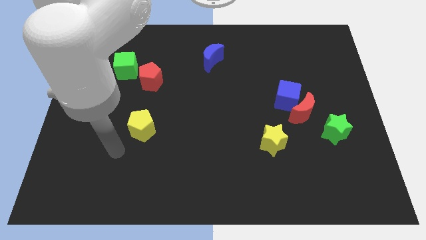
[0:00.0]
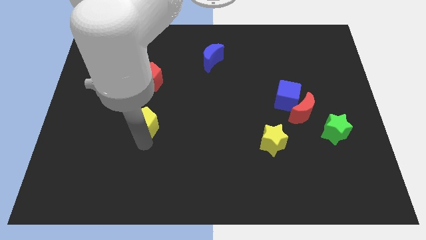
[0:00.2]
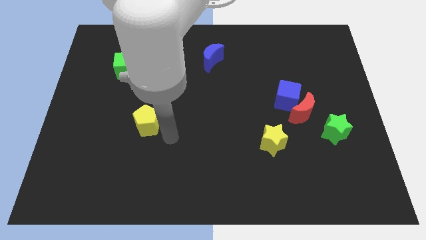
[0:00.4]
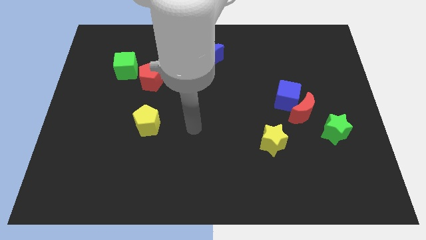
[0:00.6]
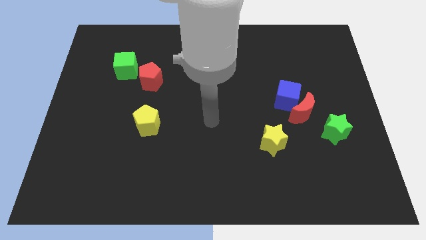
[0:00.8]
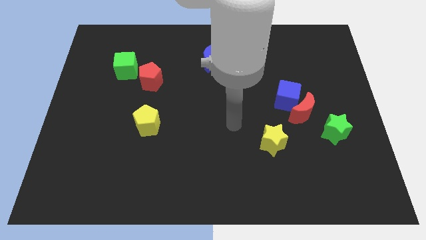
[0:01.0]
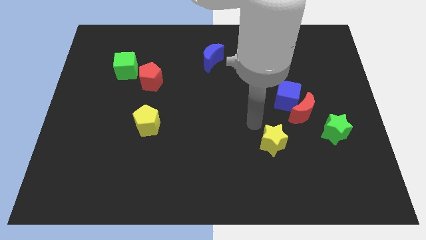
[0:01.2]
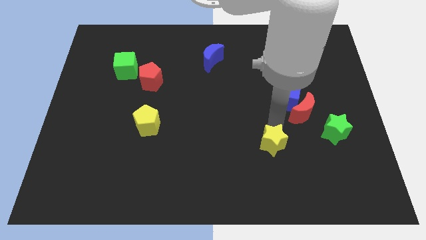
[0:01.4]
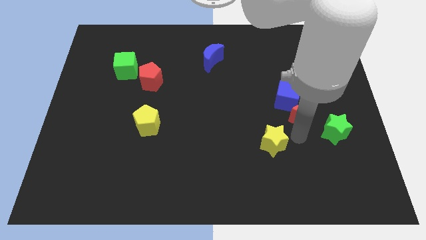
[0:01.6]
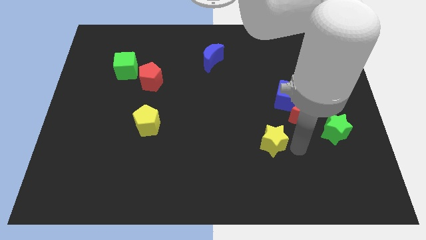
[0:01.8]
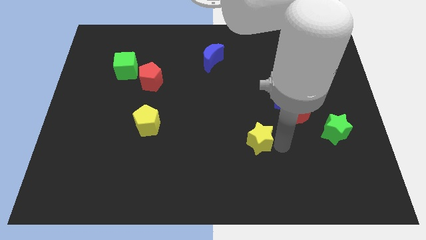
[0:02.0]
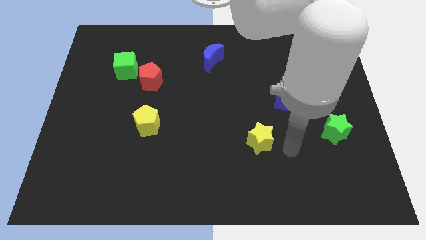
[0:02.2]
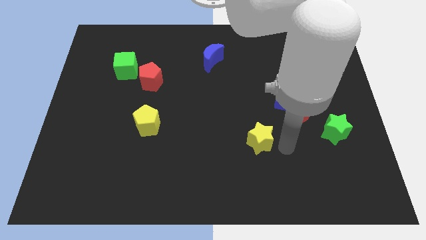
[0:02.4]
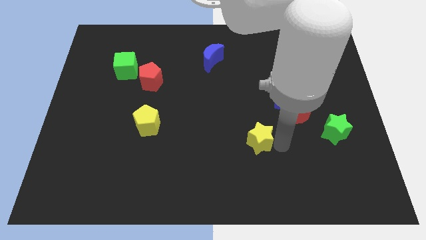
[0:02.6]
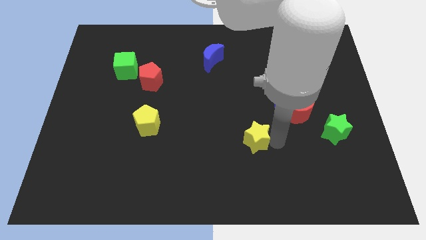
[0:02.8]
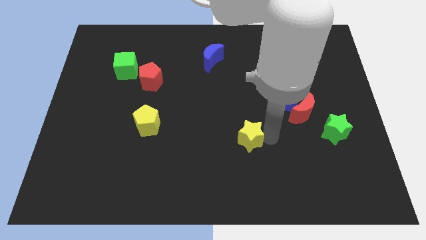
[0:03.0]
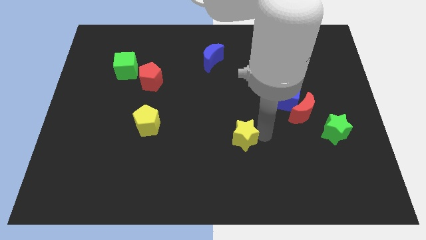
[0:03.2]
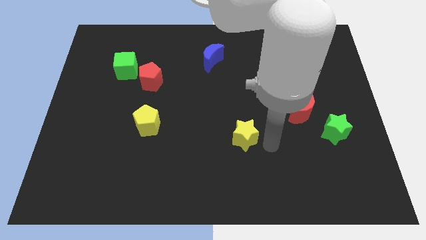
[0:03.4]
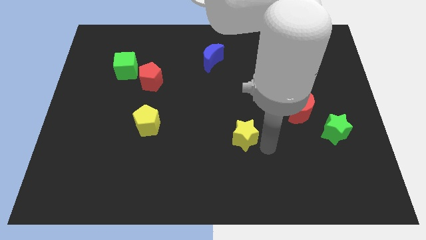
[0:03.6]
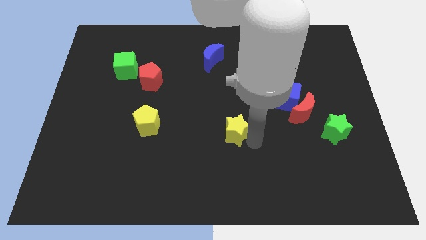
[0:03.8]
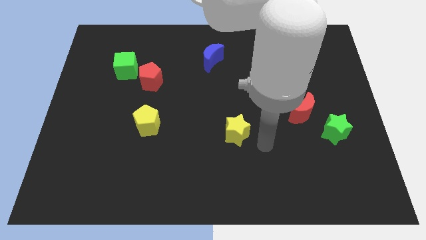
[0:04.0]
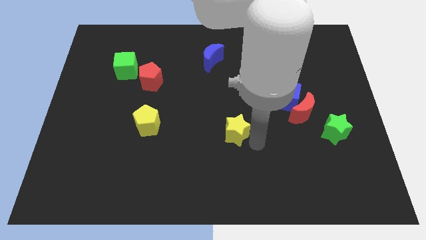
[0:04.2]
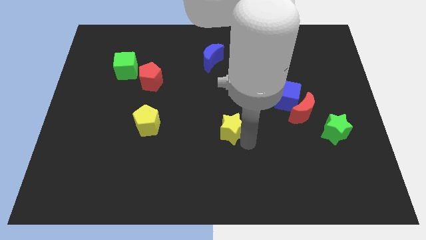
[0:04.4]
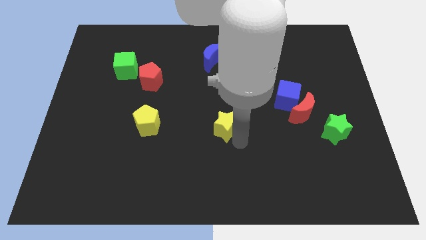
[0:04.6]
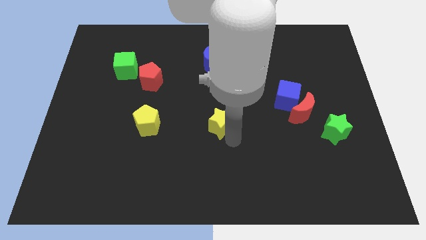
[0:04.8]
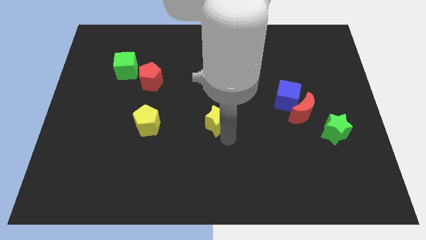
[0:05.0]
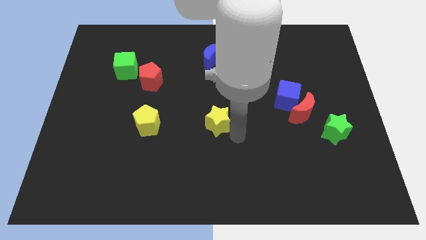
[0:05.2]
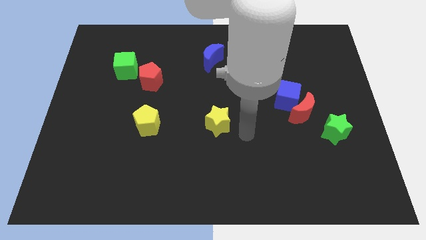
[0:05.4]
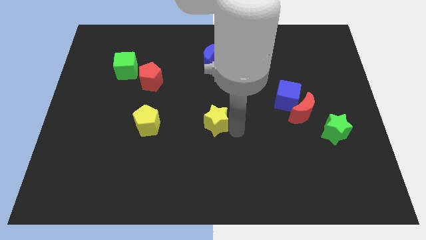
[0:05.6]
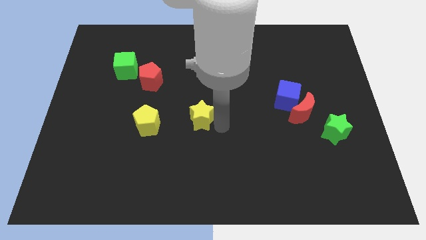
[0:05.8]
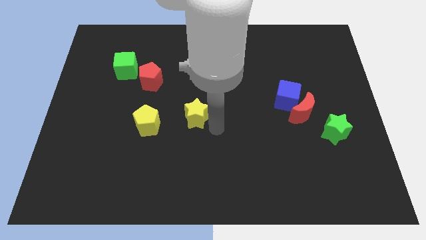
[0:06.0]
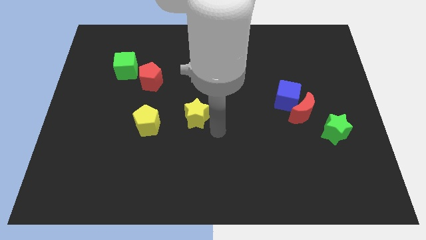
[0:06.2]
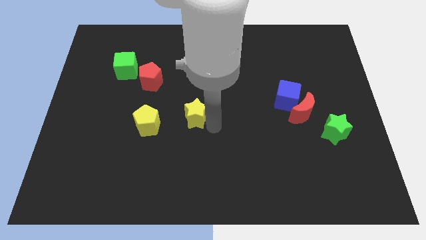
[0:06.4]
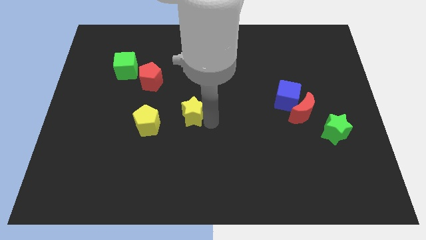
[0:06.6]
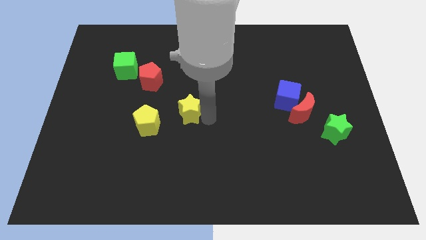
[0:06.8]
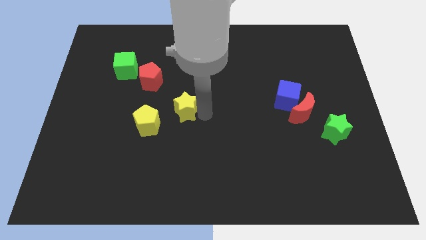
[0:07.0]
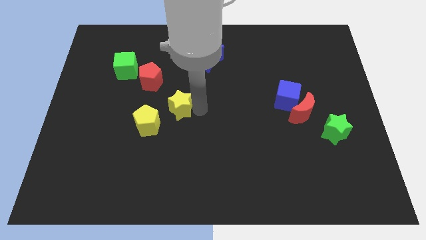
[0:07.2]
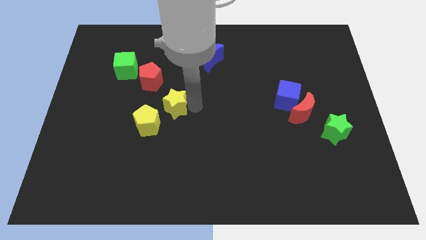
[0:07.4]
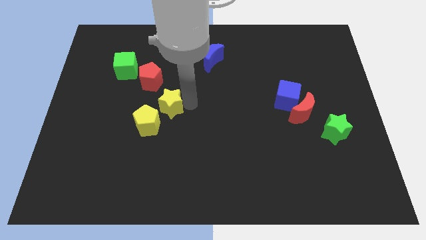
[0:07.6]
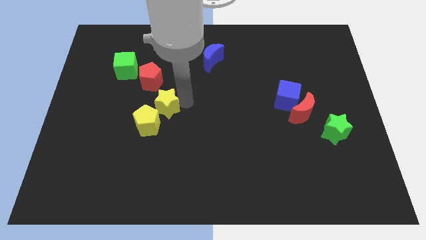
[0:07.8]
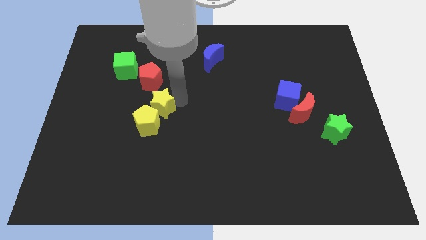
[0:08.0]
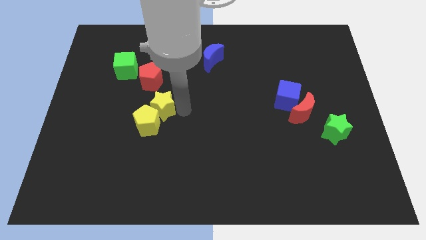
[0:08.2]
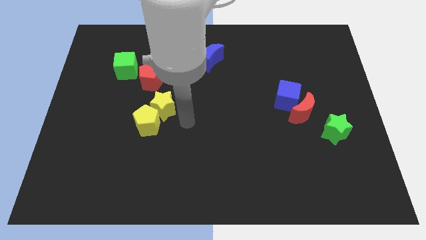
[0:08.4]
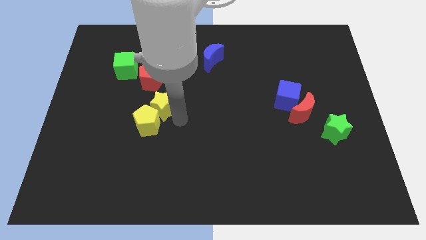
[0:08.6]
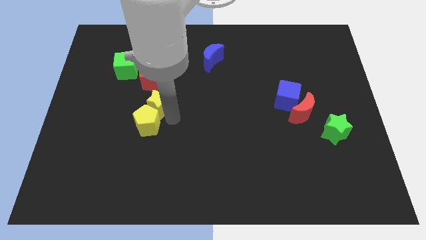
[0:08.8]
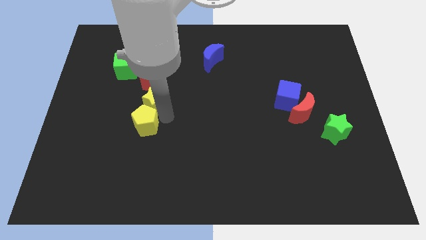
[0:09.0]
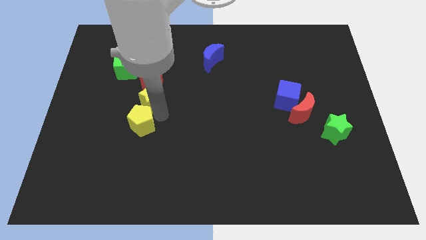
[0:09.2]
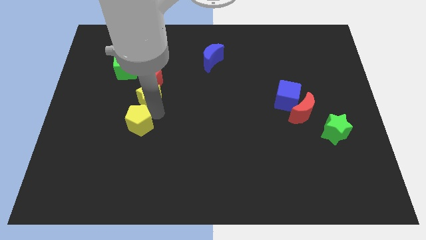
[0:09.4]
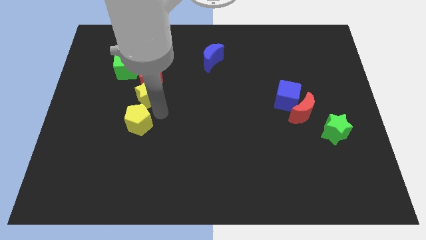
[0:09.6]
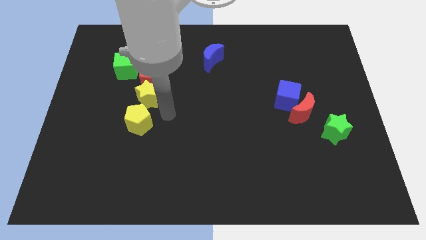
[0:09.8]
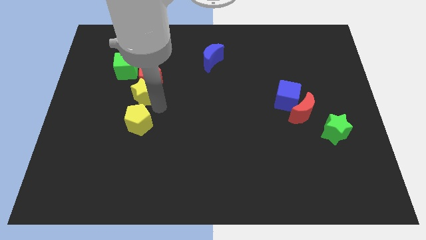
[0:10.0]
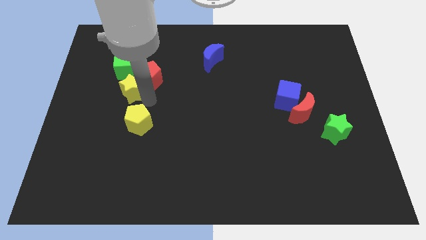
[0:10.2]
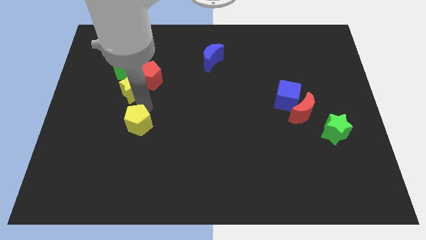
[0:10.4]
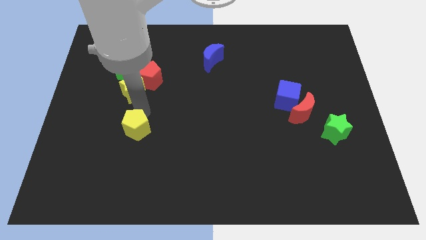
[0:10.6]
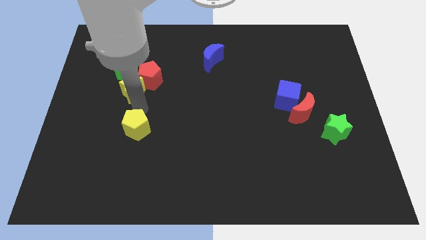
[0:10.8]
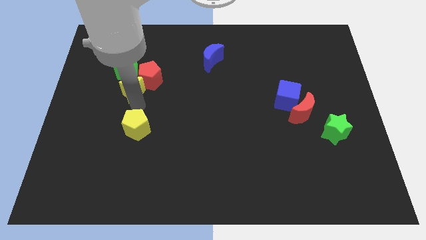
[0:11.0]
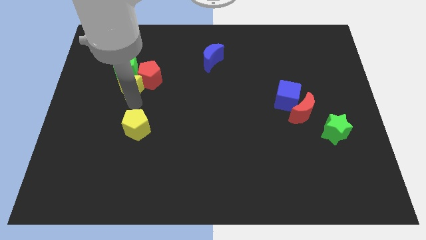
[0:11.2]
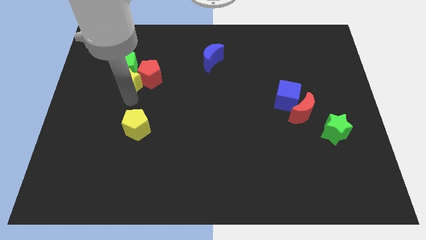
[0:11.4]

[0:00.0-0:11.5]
slide the yellow star next to the green cube

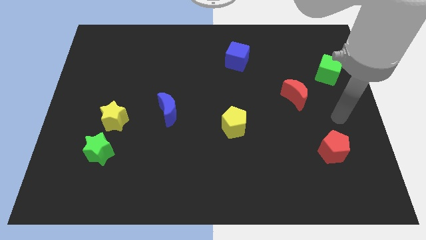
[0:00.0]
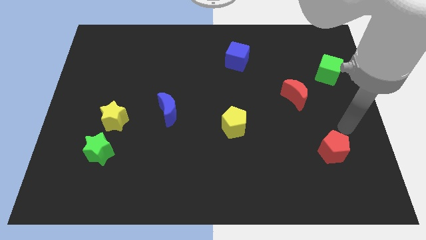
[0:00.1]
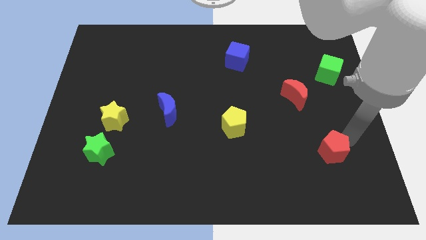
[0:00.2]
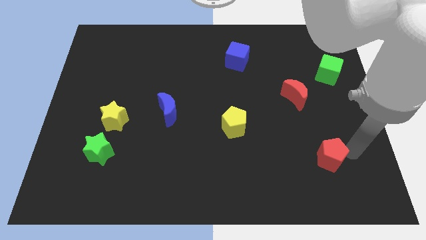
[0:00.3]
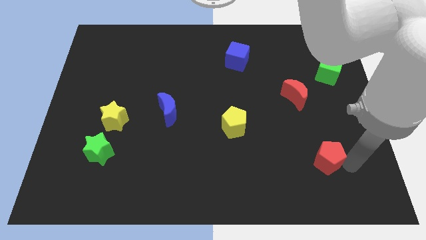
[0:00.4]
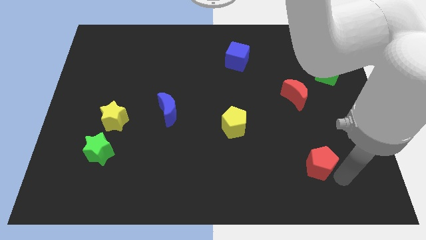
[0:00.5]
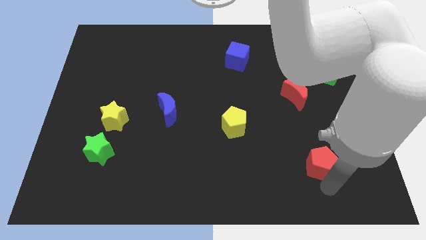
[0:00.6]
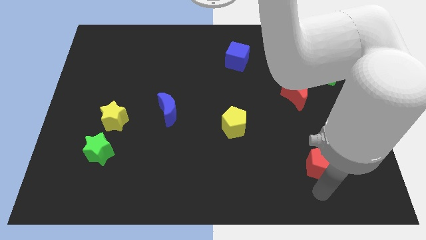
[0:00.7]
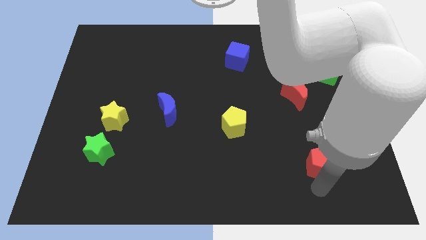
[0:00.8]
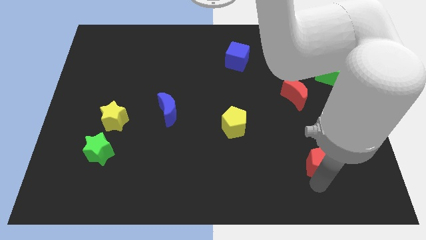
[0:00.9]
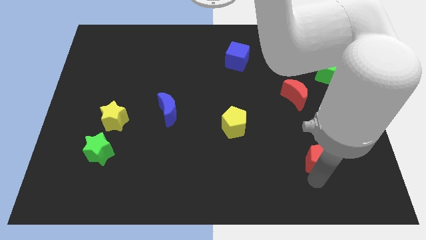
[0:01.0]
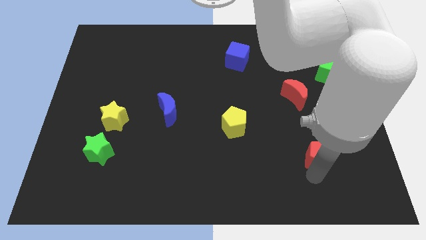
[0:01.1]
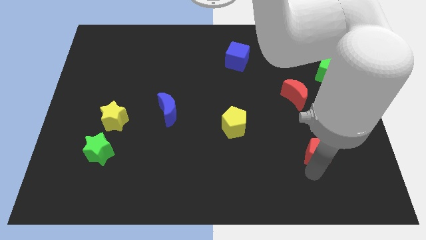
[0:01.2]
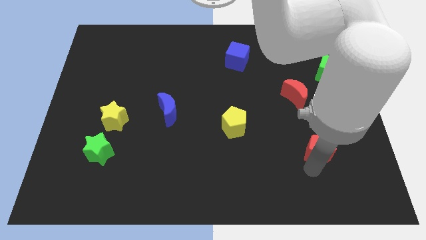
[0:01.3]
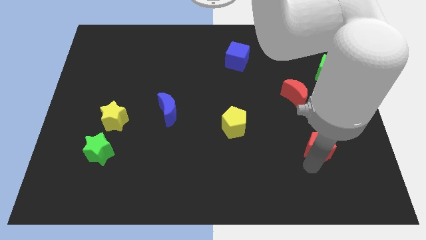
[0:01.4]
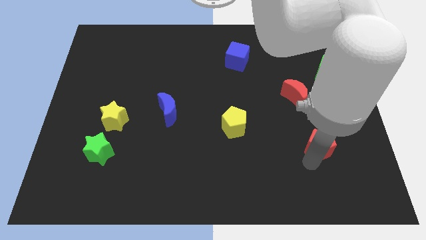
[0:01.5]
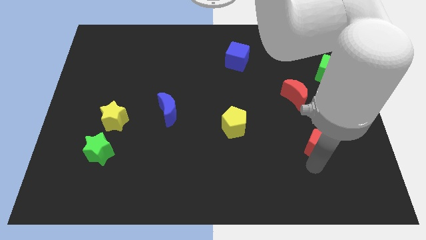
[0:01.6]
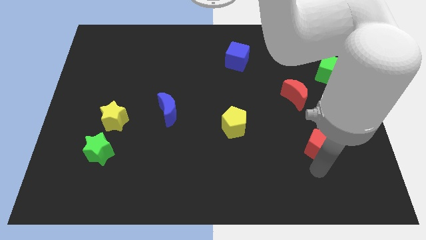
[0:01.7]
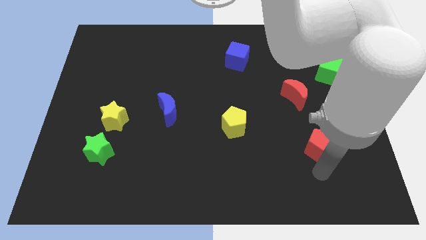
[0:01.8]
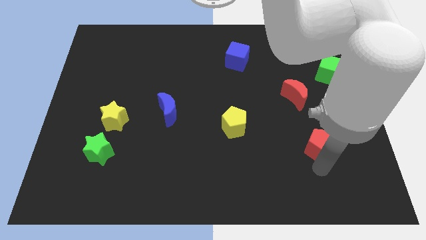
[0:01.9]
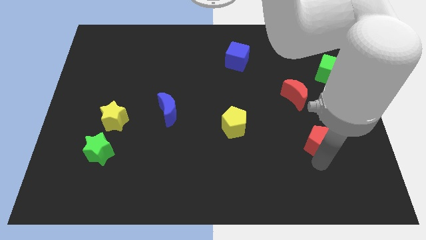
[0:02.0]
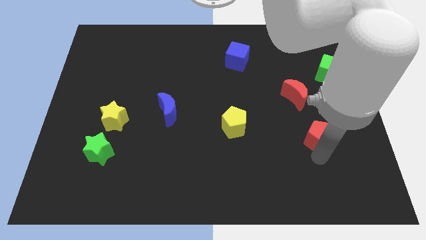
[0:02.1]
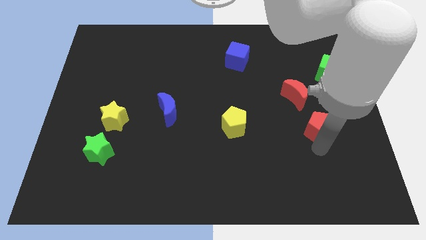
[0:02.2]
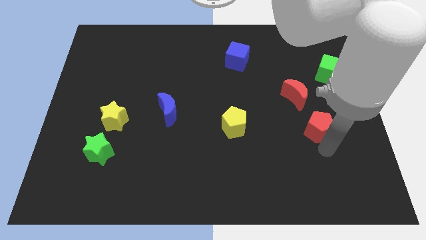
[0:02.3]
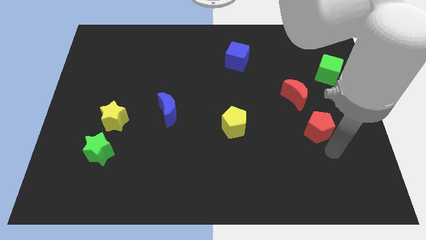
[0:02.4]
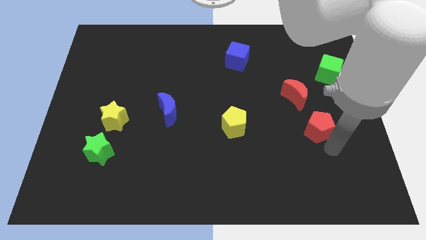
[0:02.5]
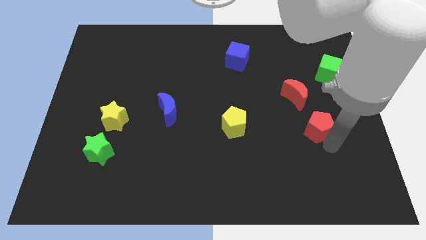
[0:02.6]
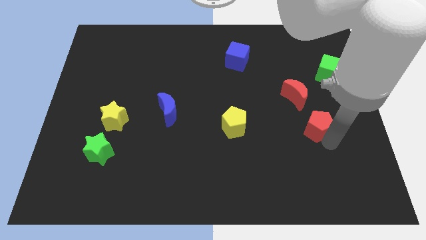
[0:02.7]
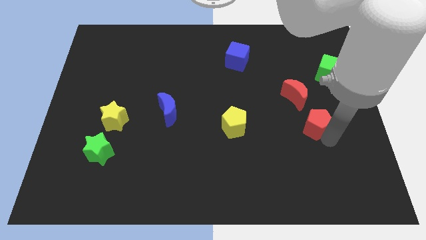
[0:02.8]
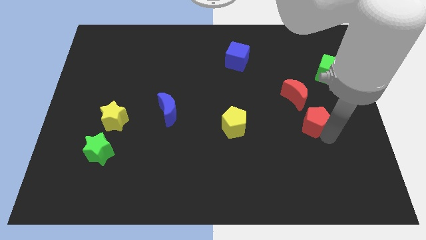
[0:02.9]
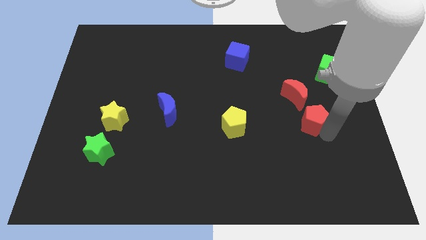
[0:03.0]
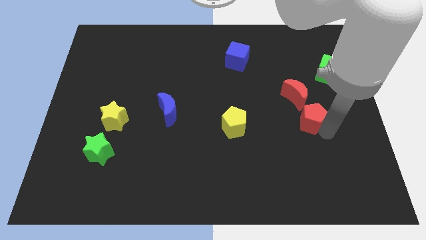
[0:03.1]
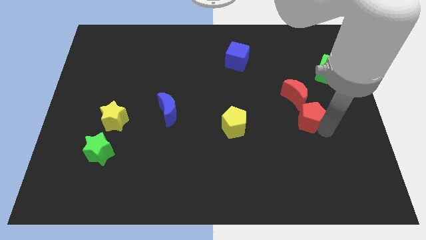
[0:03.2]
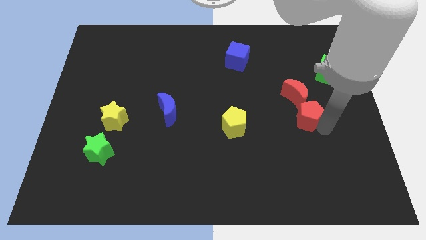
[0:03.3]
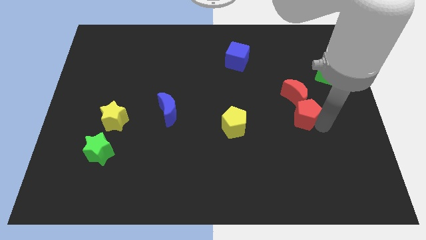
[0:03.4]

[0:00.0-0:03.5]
slide the red pentagon to the red moon
